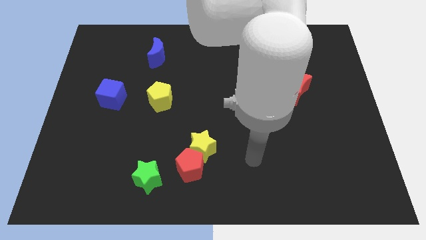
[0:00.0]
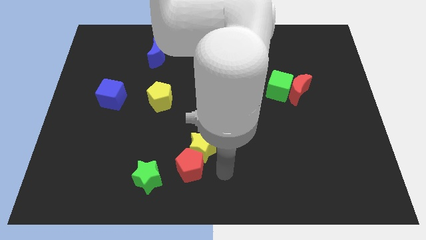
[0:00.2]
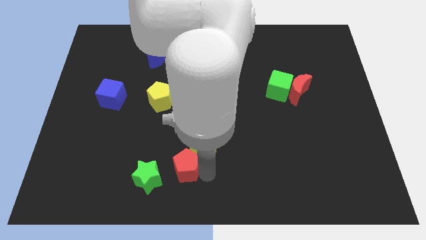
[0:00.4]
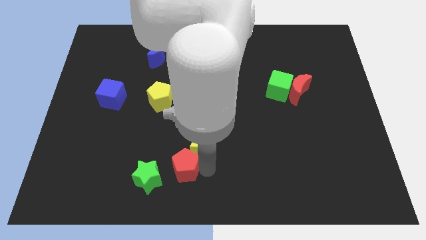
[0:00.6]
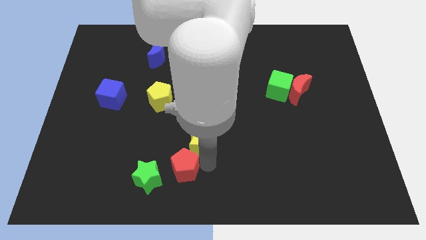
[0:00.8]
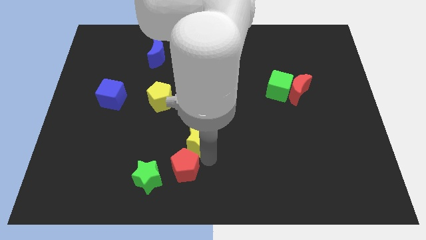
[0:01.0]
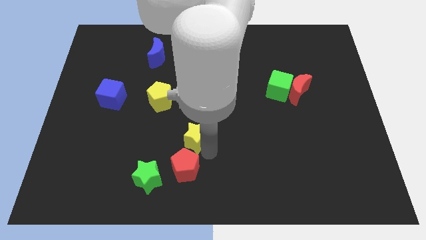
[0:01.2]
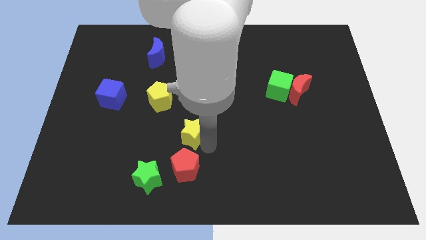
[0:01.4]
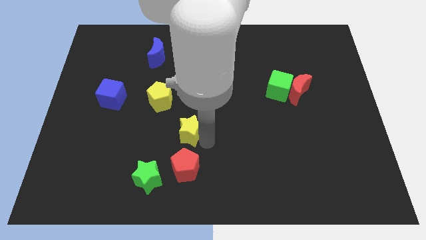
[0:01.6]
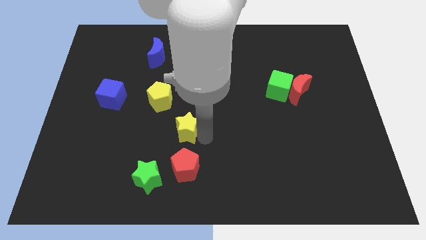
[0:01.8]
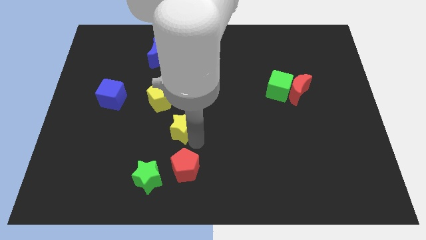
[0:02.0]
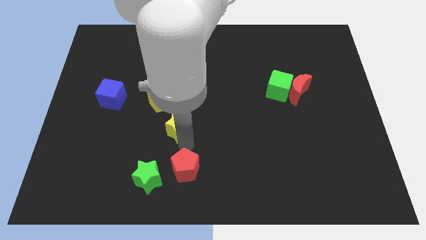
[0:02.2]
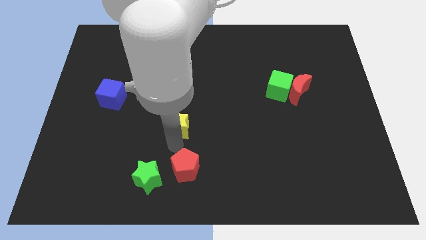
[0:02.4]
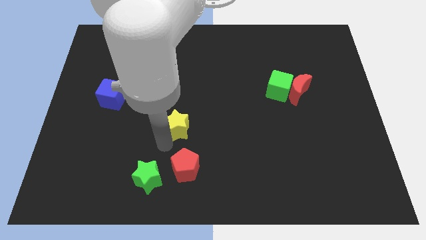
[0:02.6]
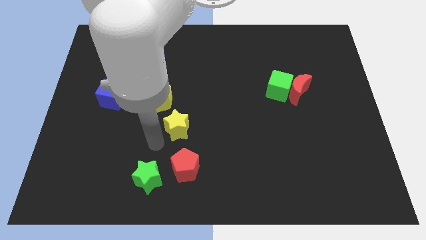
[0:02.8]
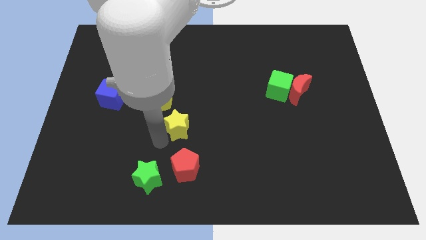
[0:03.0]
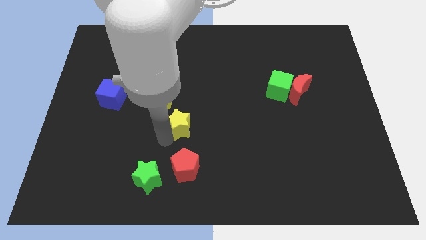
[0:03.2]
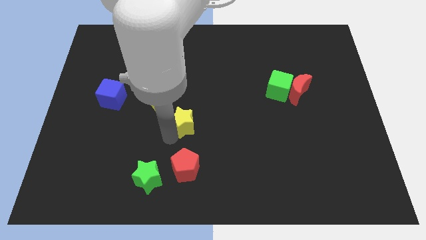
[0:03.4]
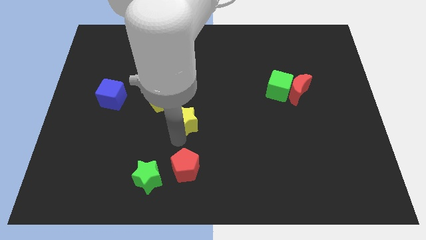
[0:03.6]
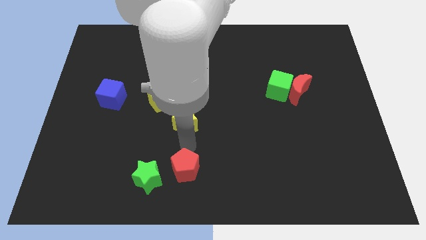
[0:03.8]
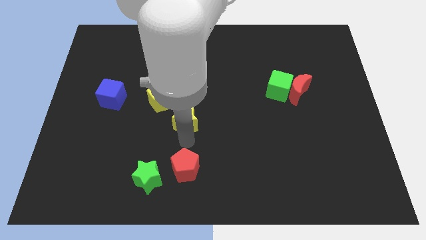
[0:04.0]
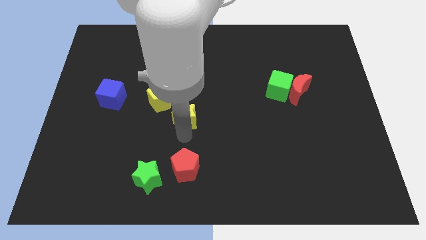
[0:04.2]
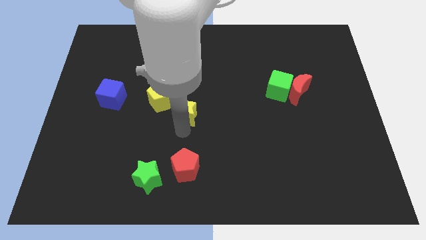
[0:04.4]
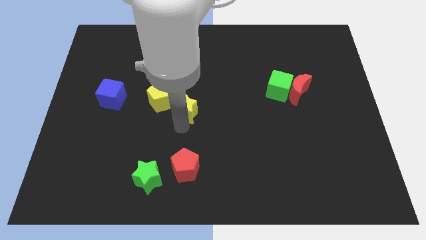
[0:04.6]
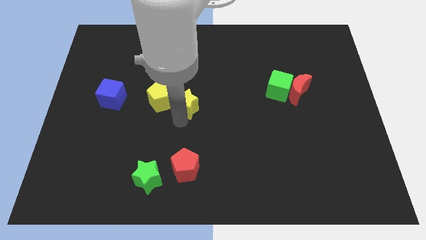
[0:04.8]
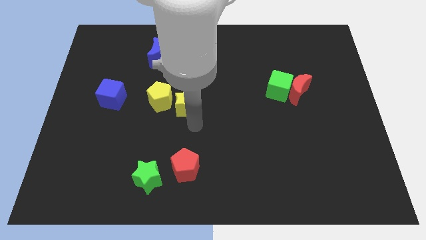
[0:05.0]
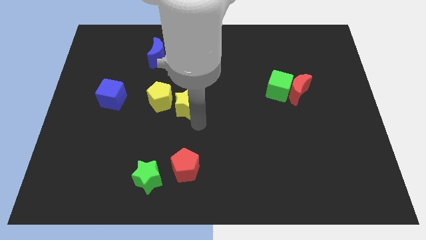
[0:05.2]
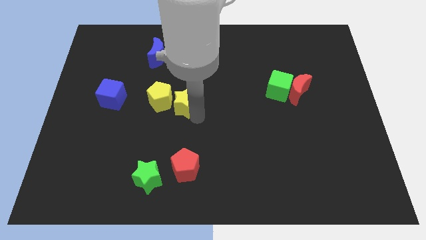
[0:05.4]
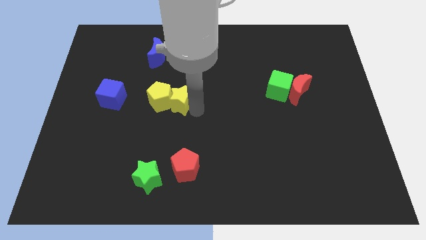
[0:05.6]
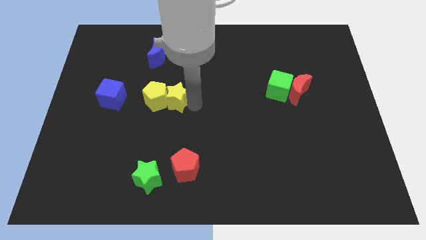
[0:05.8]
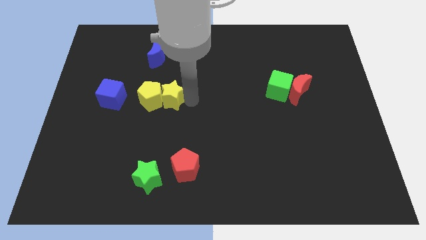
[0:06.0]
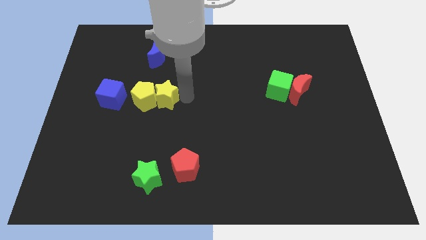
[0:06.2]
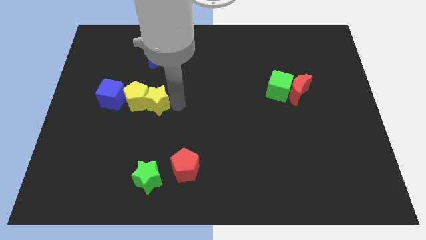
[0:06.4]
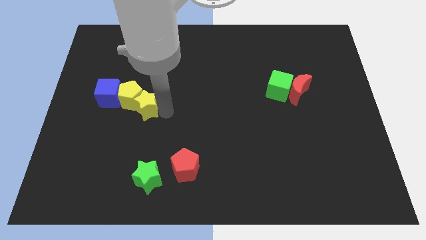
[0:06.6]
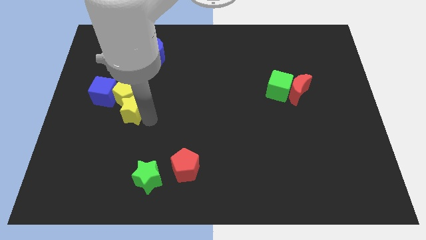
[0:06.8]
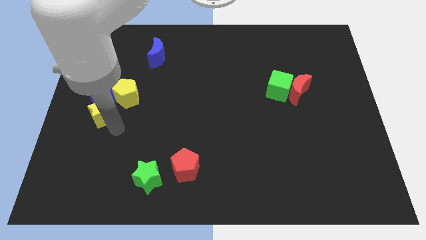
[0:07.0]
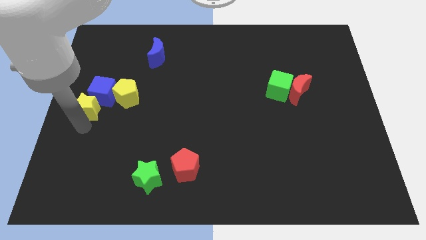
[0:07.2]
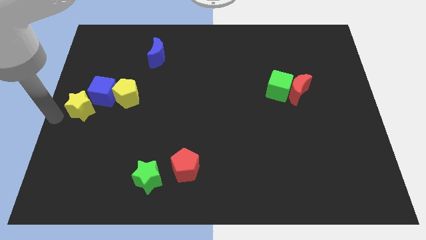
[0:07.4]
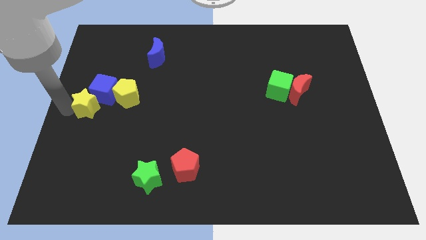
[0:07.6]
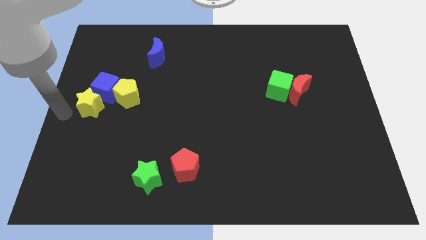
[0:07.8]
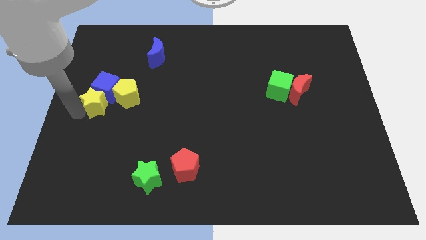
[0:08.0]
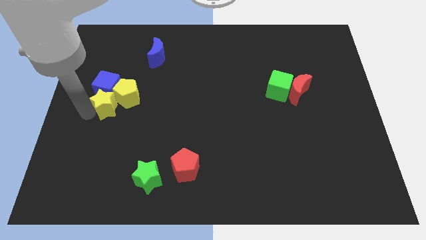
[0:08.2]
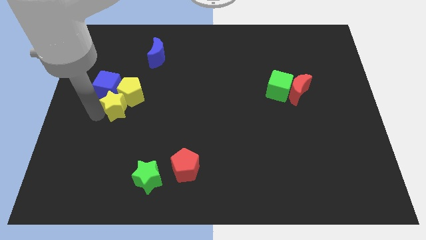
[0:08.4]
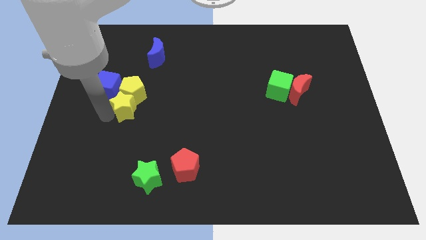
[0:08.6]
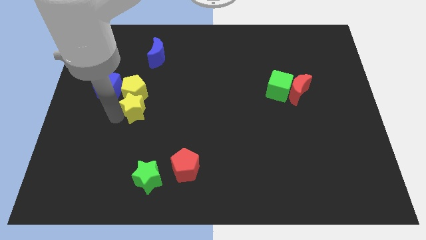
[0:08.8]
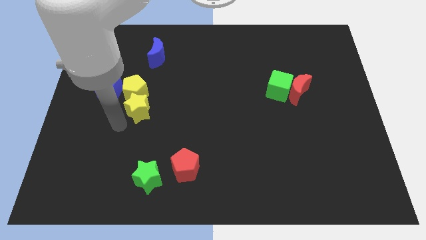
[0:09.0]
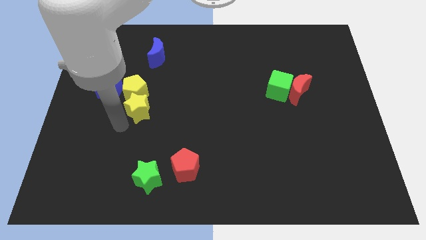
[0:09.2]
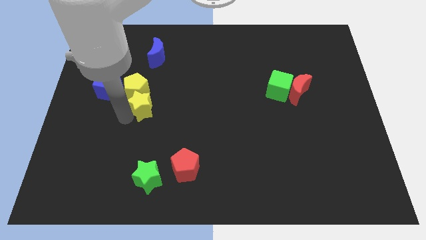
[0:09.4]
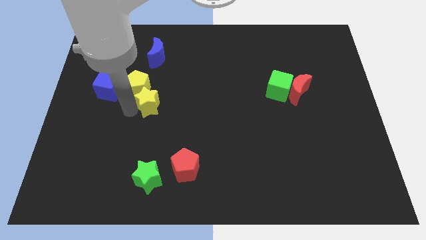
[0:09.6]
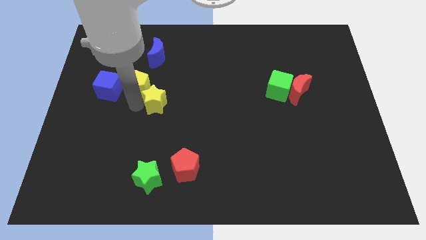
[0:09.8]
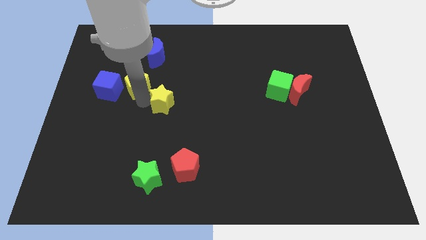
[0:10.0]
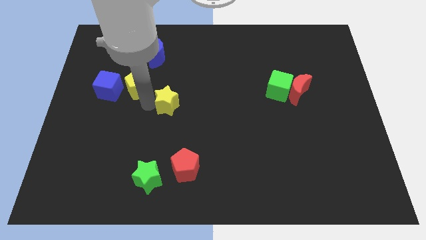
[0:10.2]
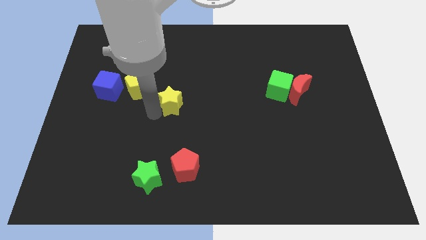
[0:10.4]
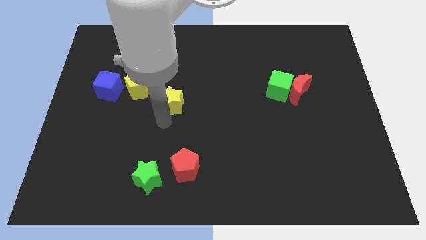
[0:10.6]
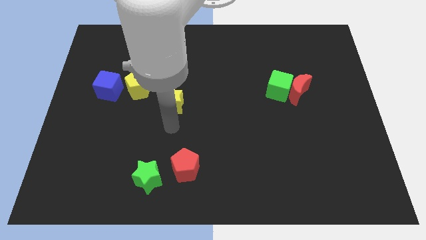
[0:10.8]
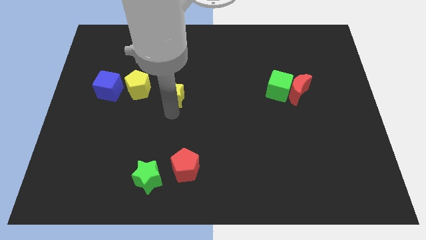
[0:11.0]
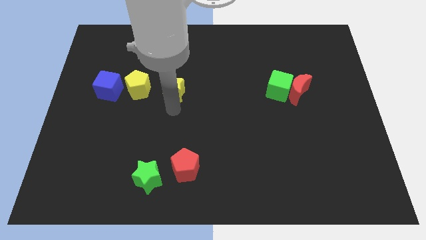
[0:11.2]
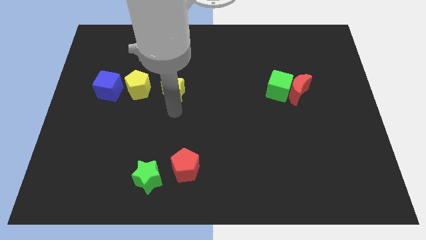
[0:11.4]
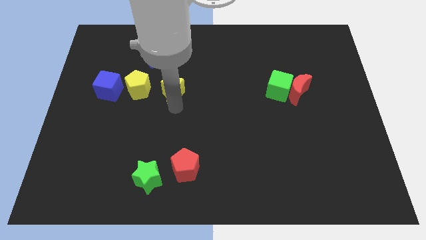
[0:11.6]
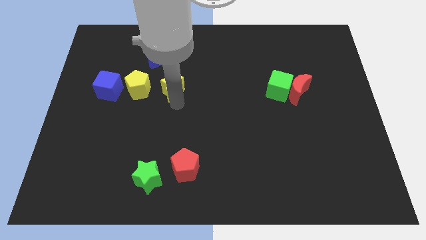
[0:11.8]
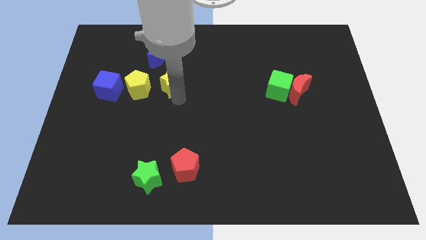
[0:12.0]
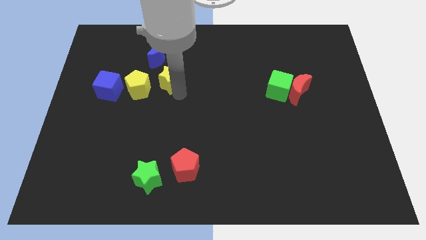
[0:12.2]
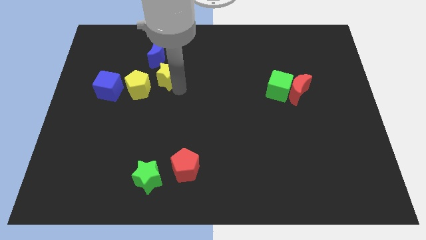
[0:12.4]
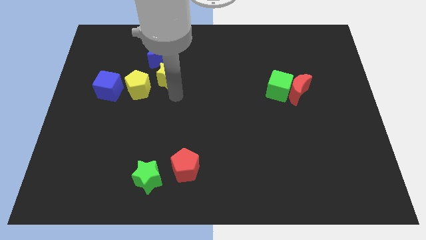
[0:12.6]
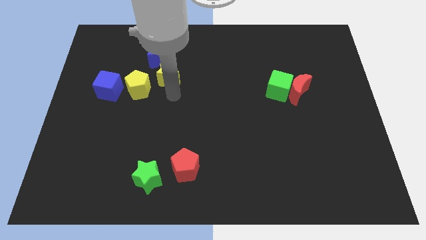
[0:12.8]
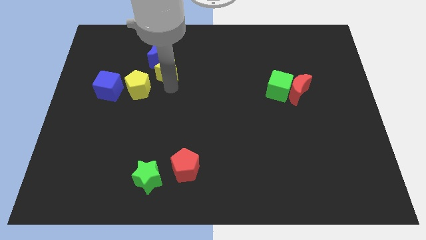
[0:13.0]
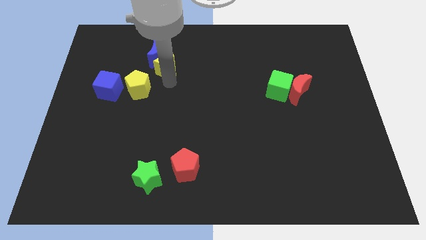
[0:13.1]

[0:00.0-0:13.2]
put the yellow star next to the blue moon
